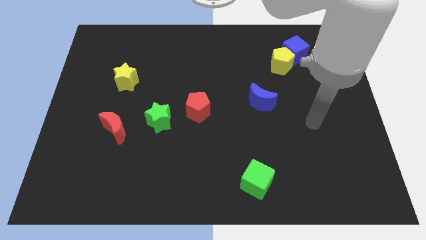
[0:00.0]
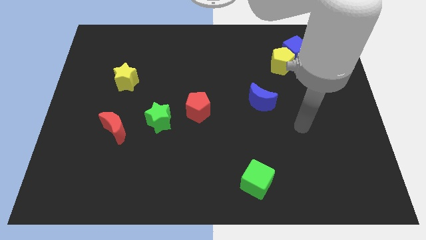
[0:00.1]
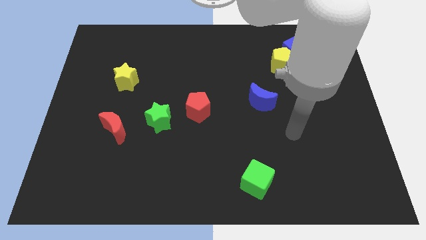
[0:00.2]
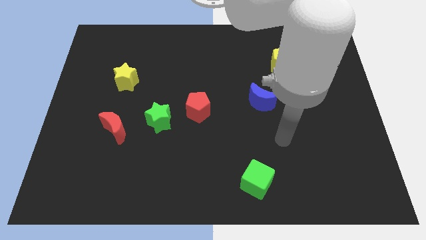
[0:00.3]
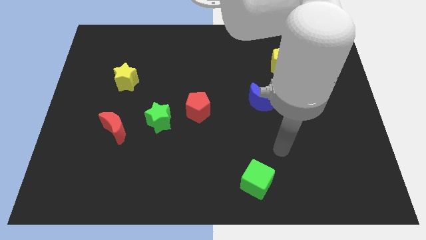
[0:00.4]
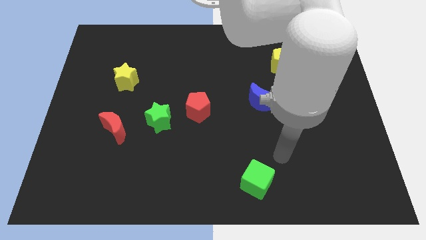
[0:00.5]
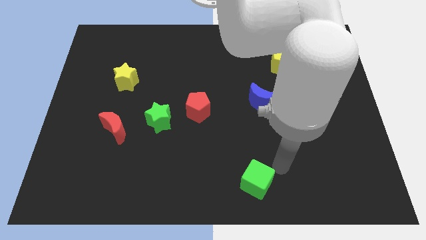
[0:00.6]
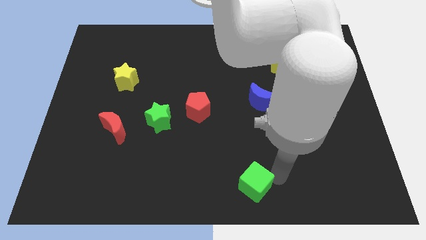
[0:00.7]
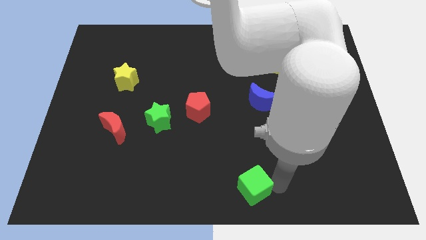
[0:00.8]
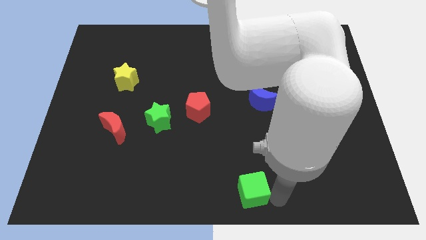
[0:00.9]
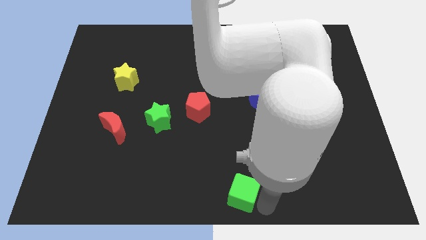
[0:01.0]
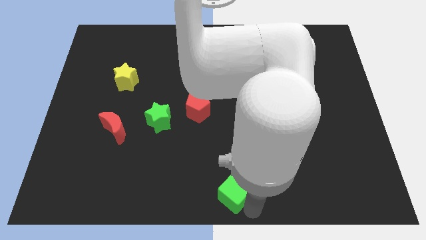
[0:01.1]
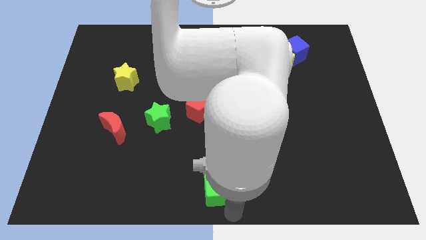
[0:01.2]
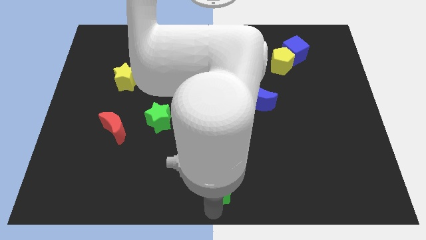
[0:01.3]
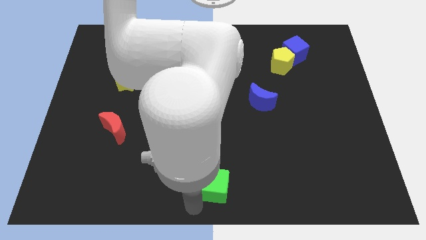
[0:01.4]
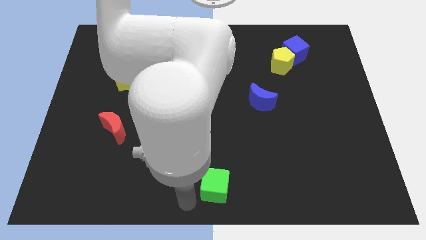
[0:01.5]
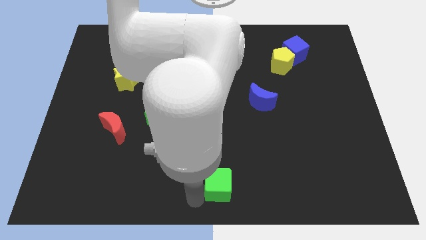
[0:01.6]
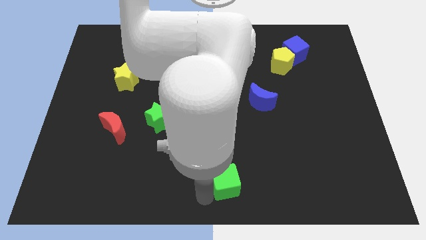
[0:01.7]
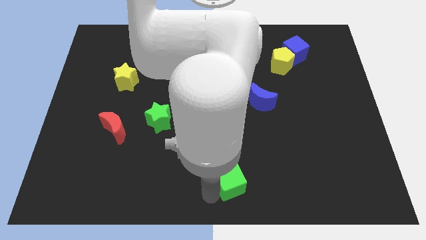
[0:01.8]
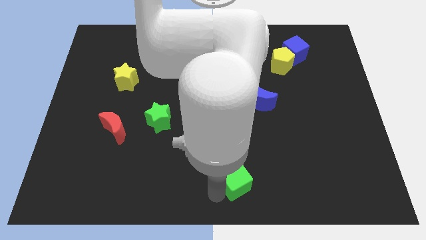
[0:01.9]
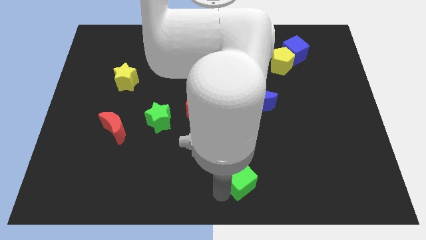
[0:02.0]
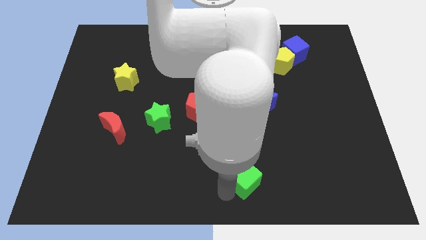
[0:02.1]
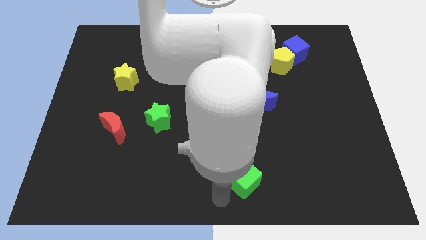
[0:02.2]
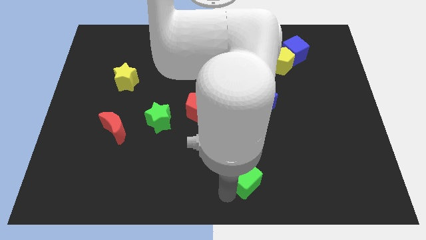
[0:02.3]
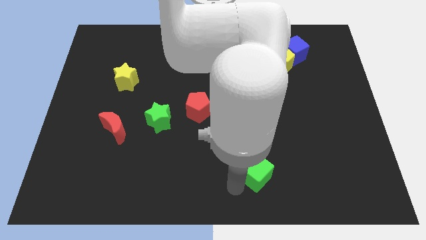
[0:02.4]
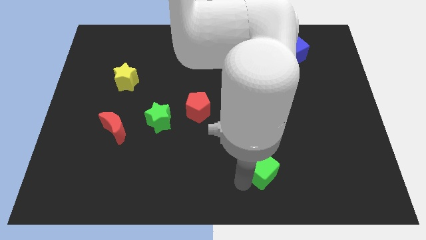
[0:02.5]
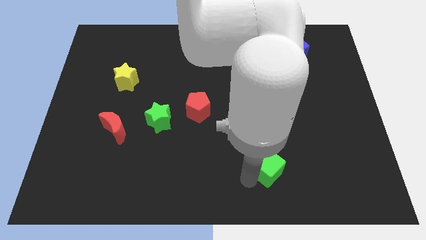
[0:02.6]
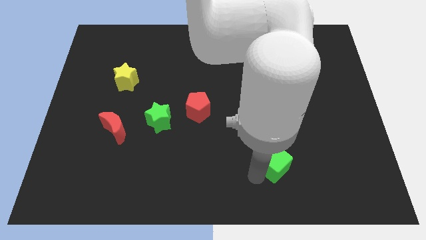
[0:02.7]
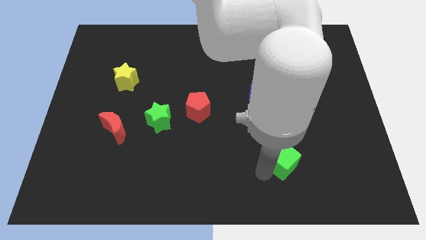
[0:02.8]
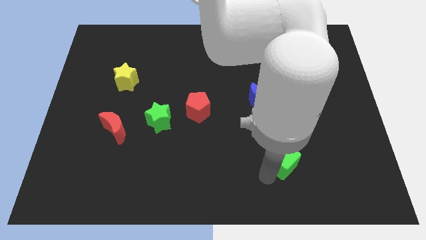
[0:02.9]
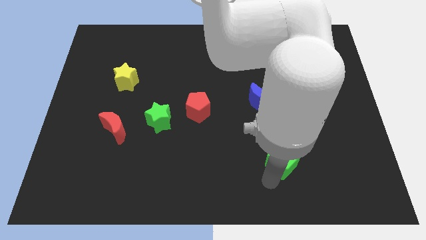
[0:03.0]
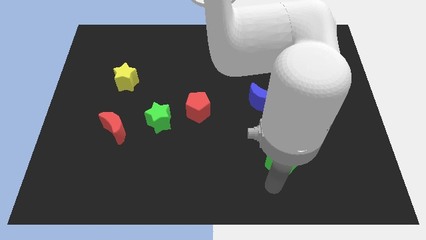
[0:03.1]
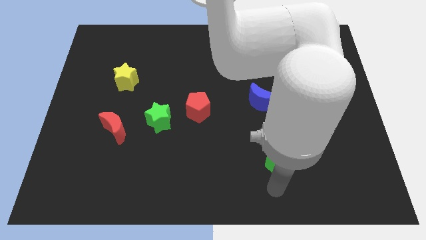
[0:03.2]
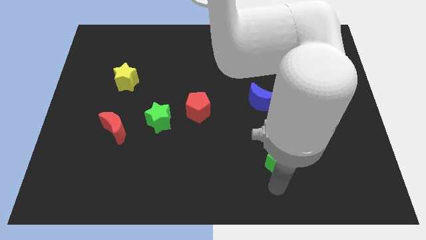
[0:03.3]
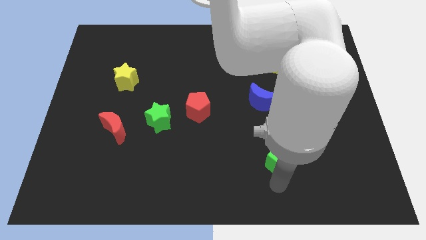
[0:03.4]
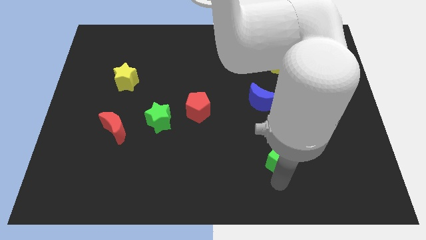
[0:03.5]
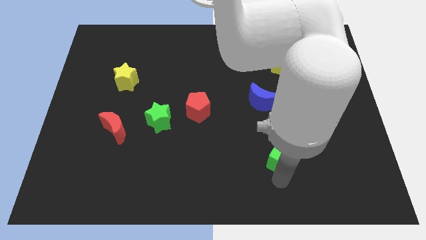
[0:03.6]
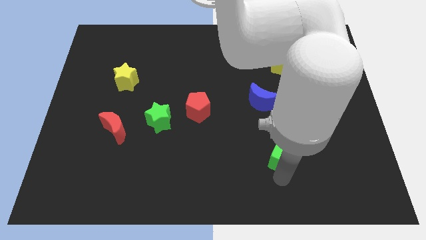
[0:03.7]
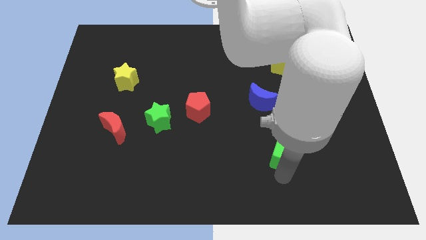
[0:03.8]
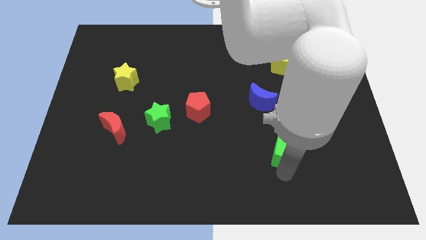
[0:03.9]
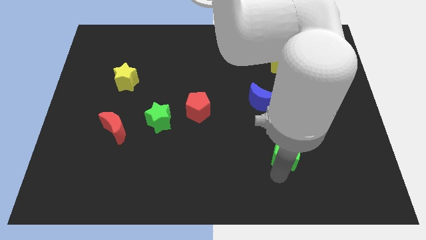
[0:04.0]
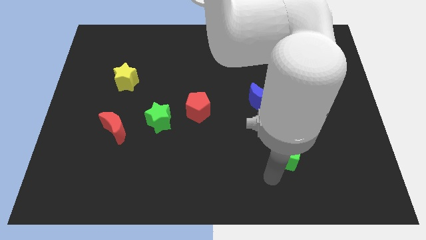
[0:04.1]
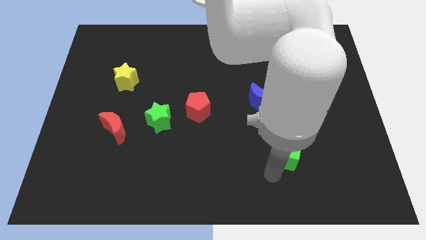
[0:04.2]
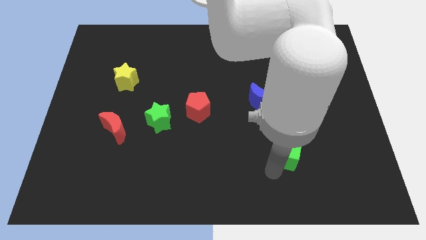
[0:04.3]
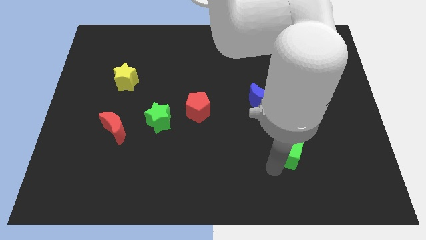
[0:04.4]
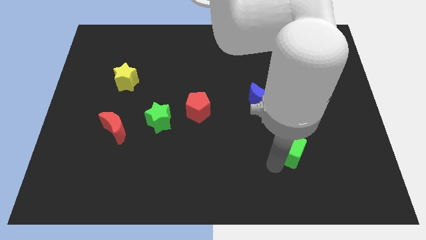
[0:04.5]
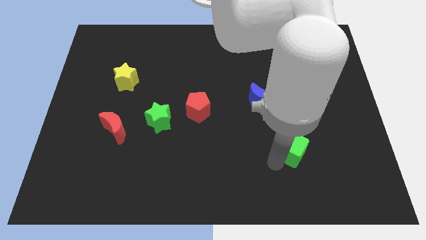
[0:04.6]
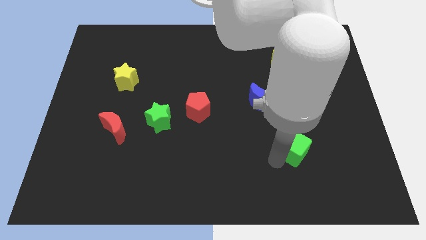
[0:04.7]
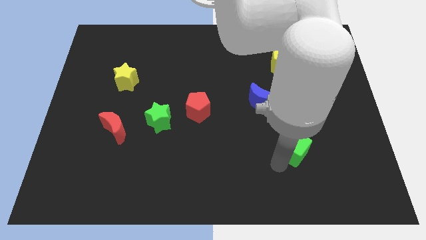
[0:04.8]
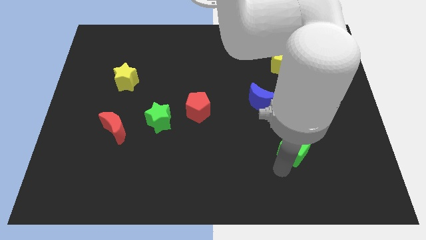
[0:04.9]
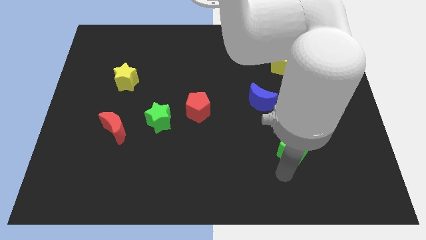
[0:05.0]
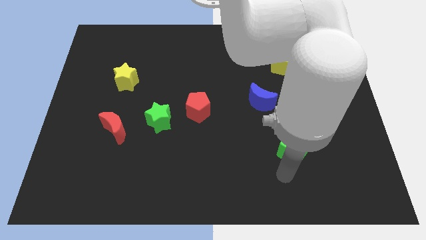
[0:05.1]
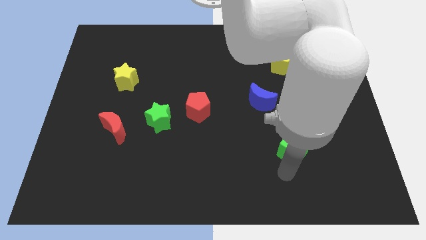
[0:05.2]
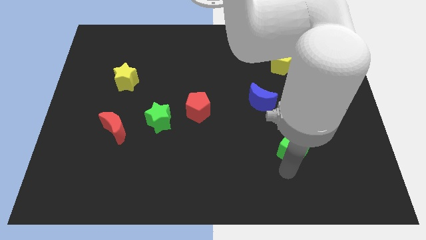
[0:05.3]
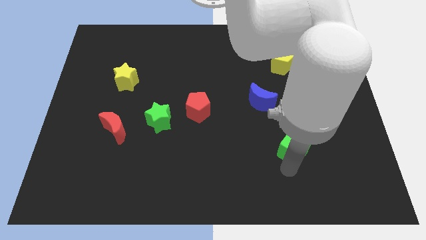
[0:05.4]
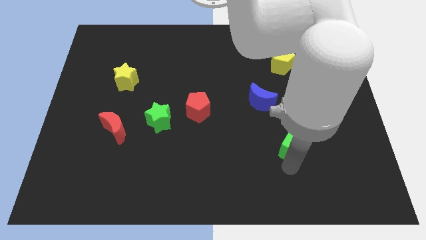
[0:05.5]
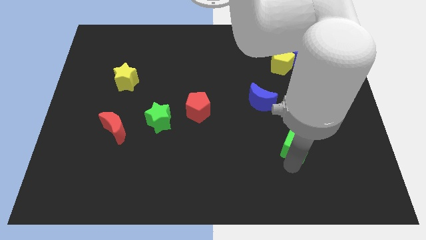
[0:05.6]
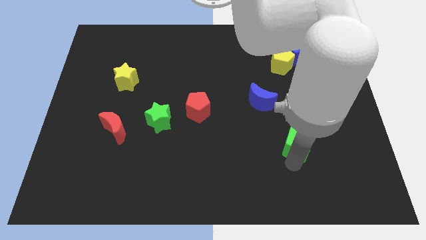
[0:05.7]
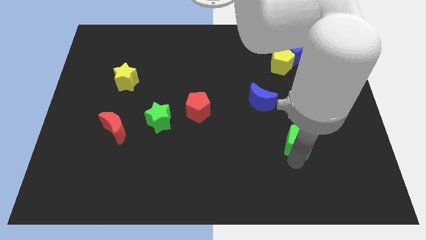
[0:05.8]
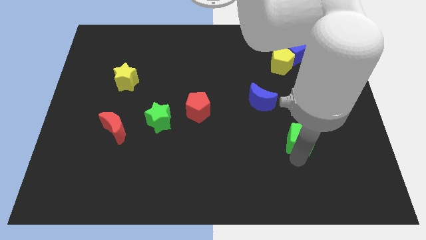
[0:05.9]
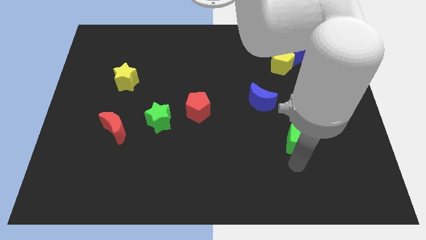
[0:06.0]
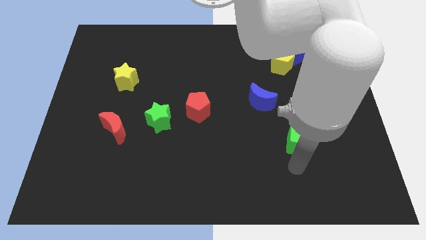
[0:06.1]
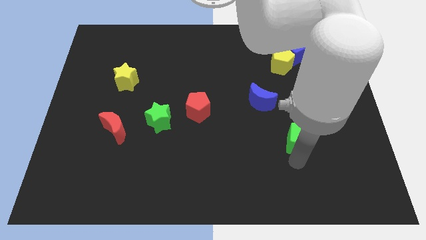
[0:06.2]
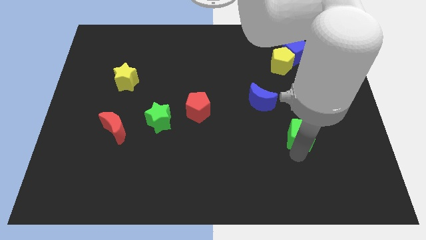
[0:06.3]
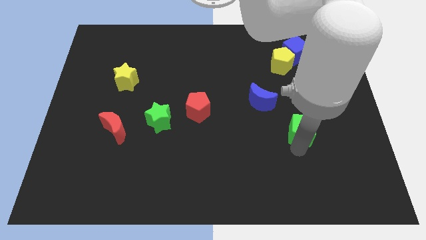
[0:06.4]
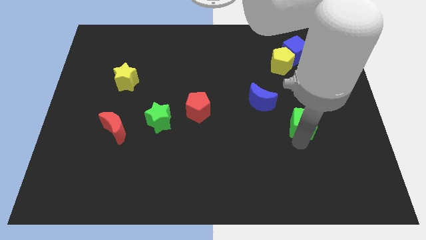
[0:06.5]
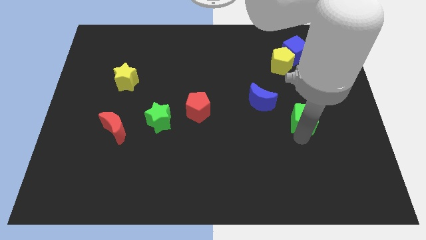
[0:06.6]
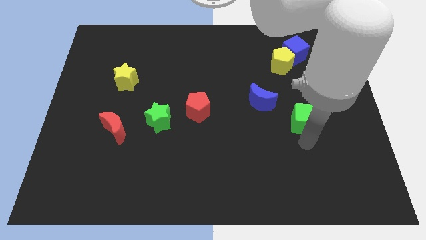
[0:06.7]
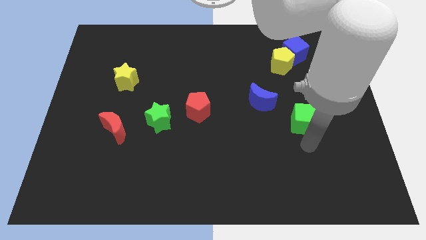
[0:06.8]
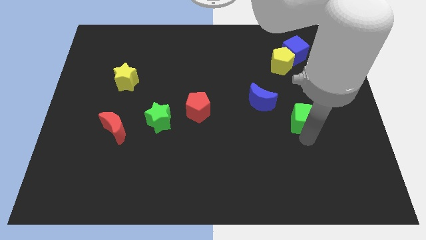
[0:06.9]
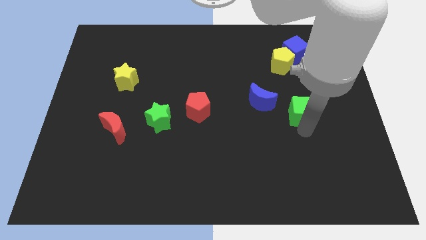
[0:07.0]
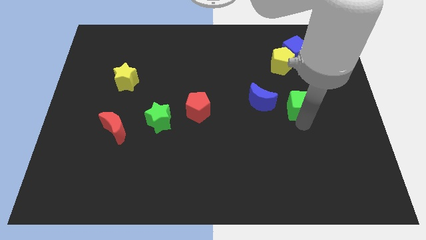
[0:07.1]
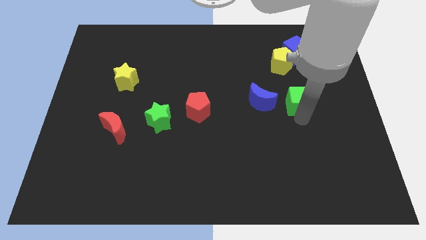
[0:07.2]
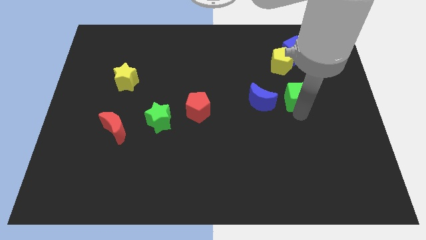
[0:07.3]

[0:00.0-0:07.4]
put the green cube to the bottom side of the blue cube

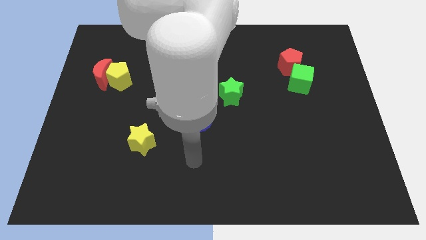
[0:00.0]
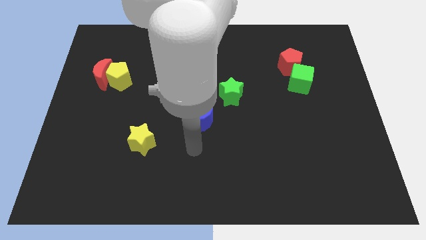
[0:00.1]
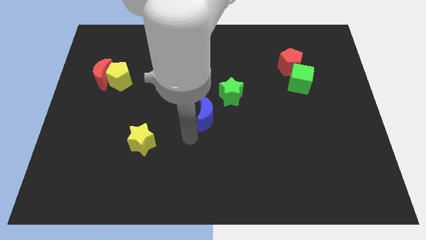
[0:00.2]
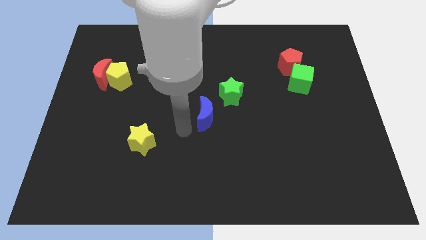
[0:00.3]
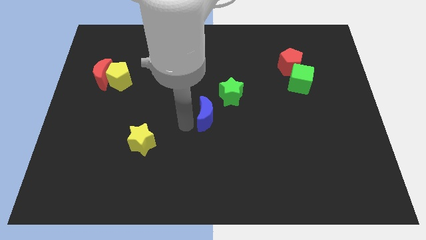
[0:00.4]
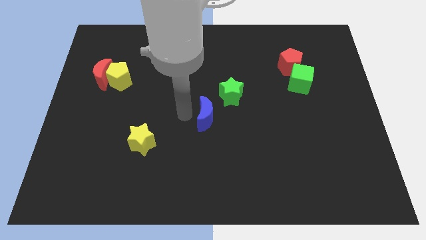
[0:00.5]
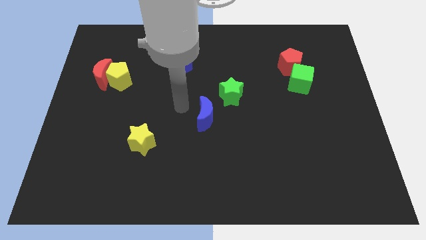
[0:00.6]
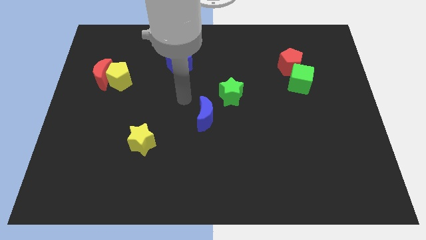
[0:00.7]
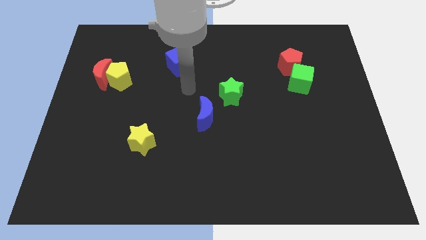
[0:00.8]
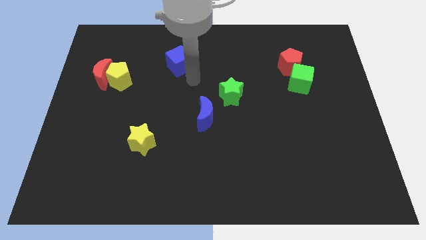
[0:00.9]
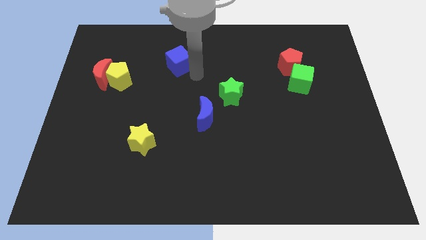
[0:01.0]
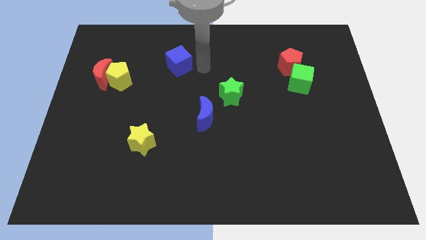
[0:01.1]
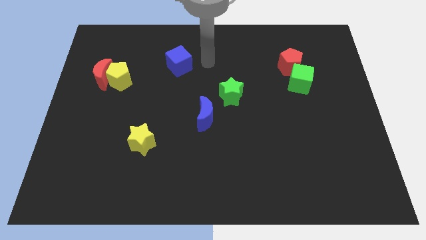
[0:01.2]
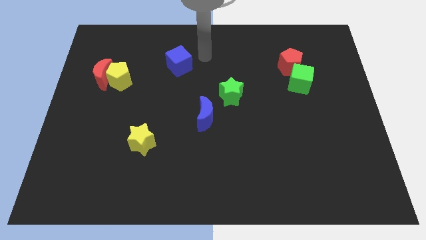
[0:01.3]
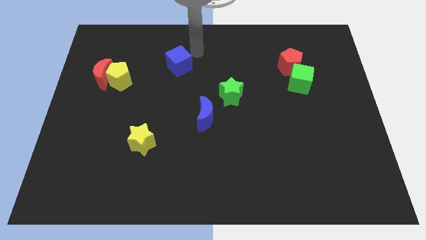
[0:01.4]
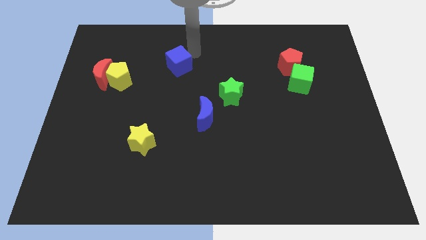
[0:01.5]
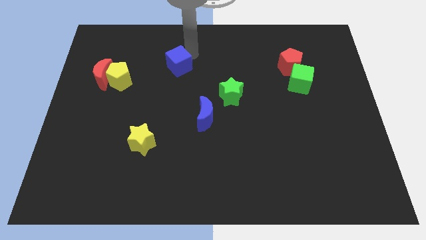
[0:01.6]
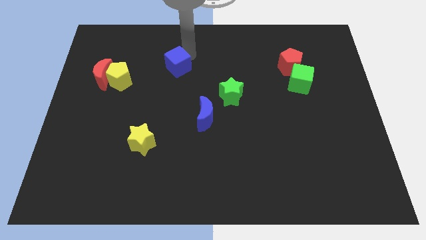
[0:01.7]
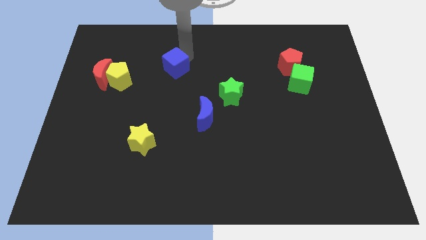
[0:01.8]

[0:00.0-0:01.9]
move the blue cube to the right of the yellow pentagon
